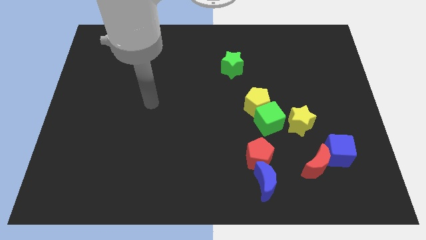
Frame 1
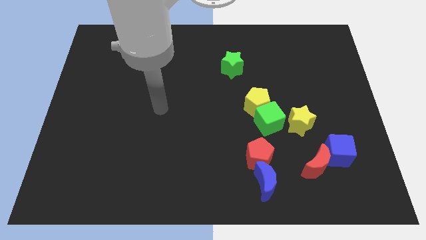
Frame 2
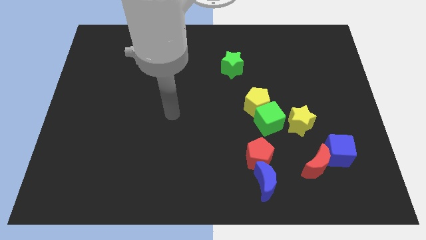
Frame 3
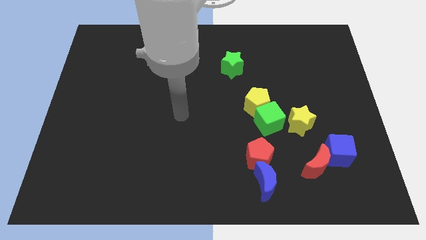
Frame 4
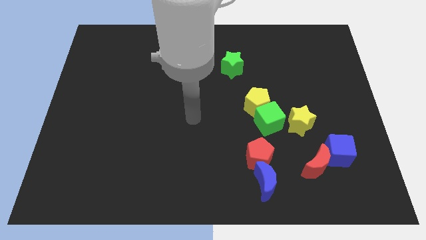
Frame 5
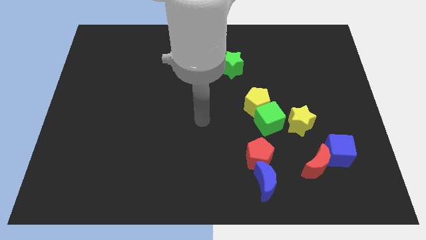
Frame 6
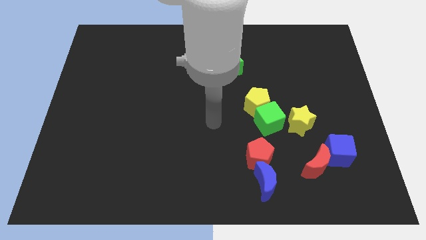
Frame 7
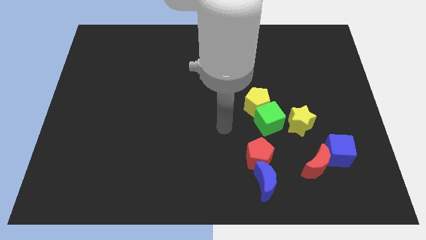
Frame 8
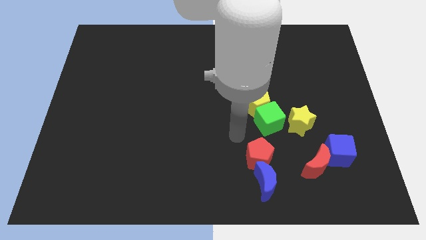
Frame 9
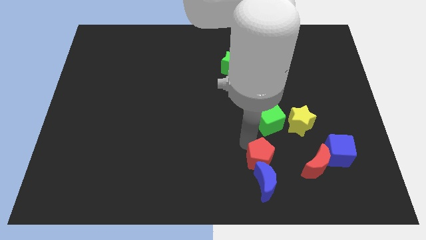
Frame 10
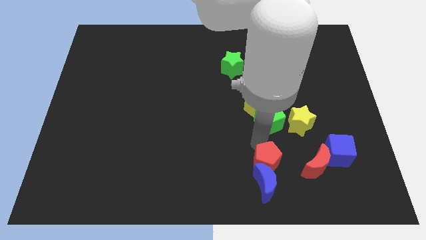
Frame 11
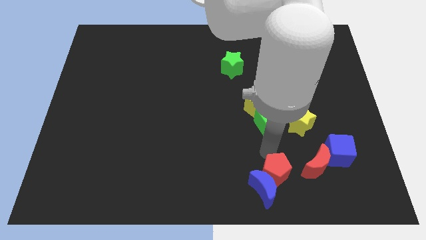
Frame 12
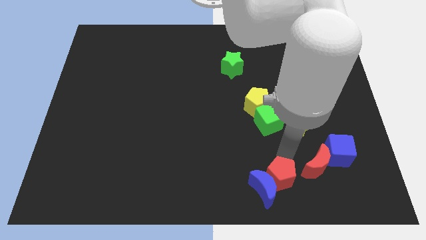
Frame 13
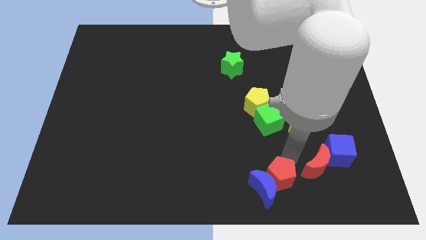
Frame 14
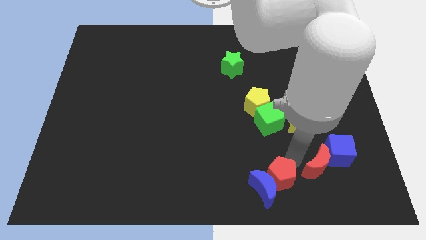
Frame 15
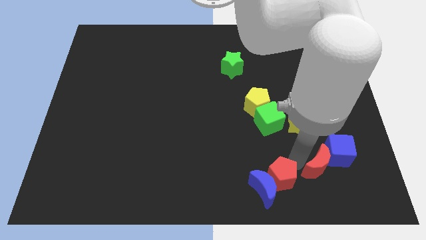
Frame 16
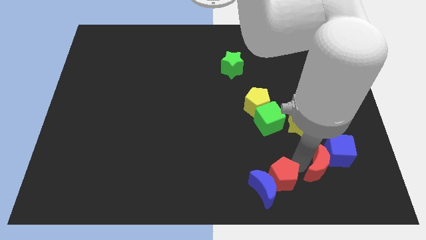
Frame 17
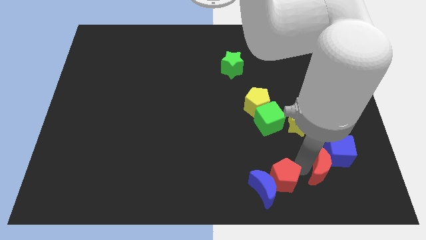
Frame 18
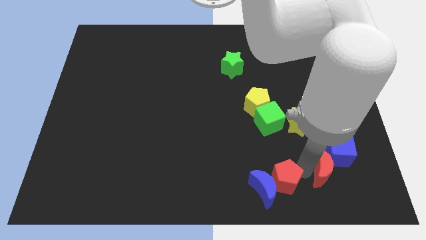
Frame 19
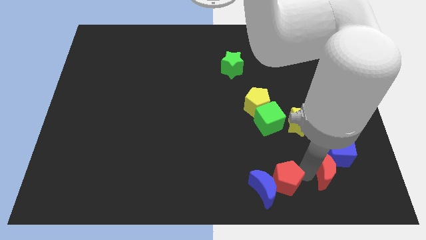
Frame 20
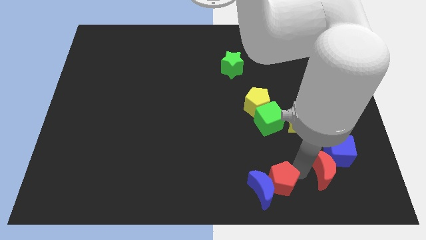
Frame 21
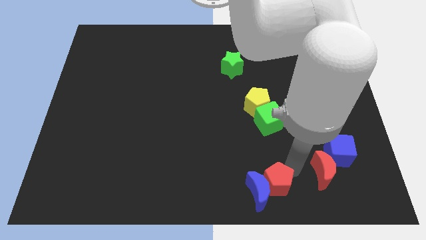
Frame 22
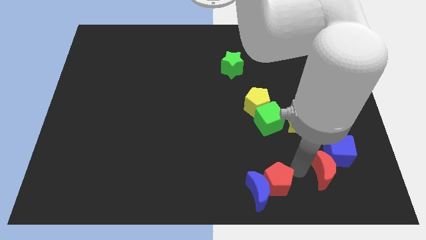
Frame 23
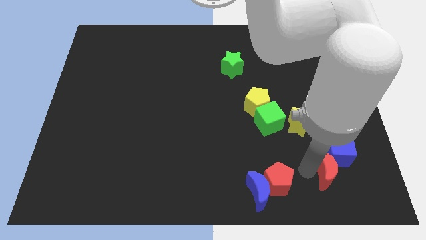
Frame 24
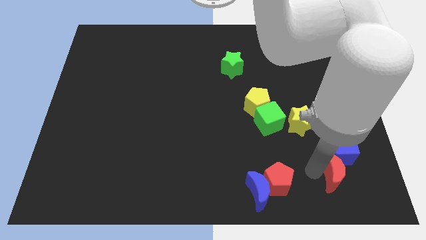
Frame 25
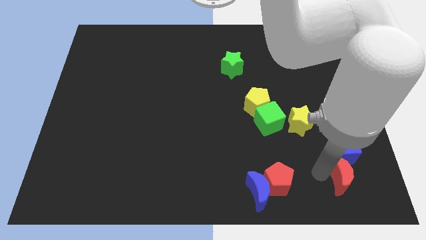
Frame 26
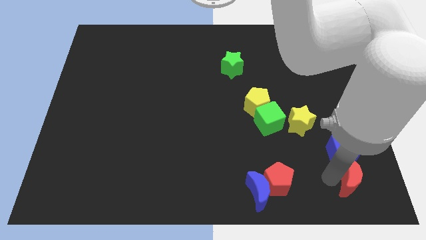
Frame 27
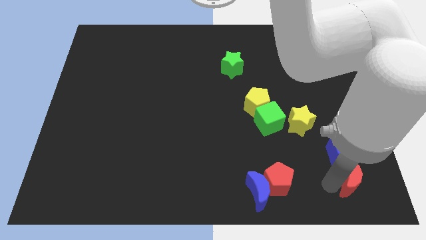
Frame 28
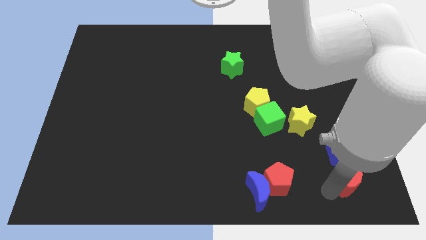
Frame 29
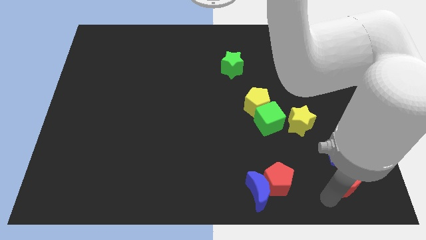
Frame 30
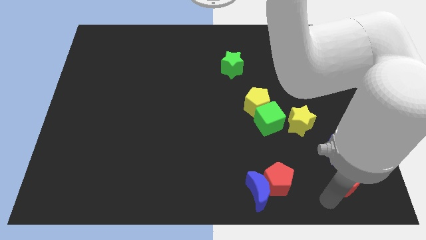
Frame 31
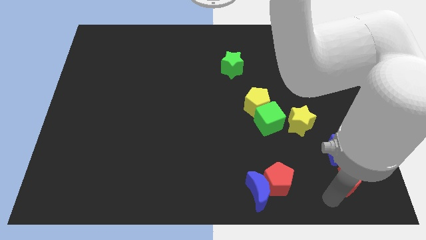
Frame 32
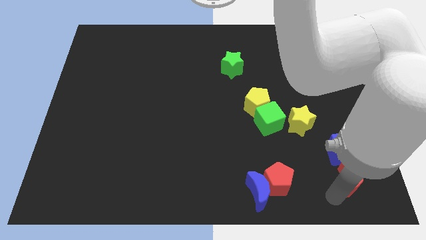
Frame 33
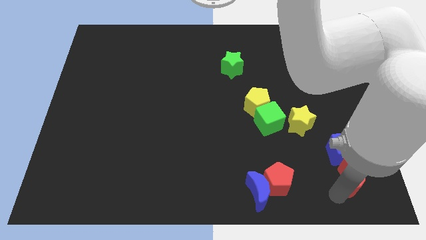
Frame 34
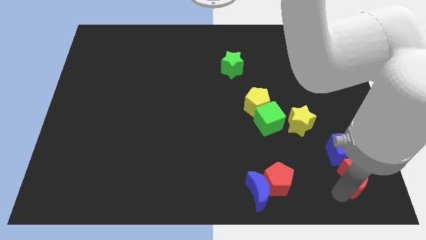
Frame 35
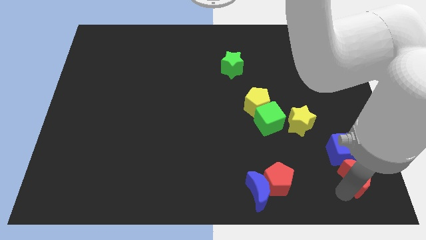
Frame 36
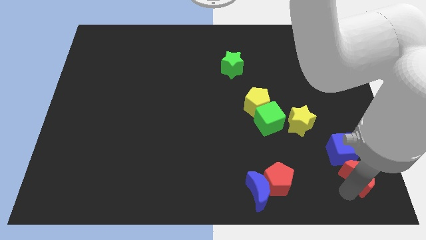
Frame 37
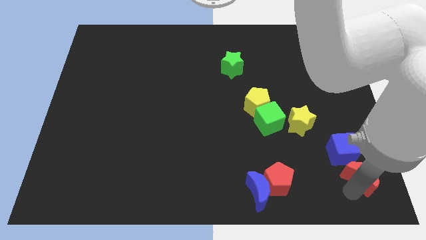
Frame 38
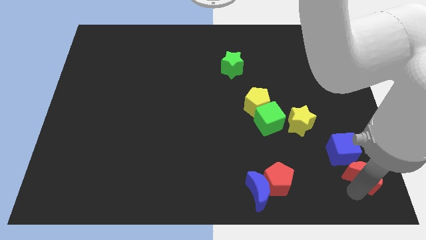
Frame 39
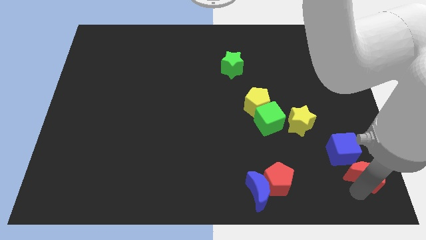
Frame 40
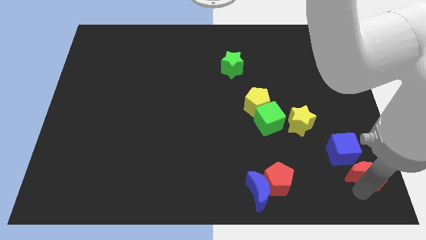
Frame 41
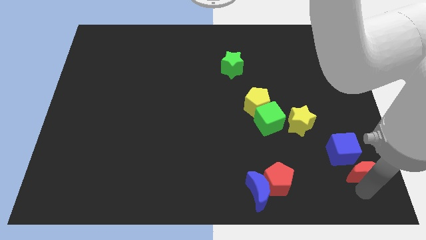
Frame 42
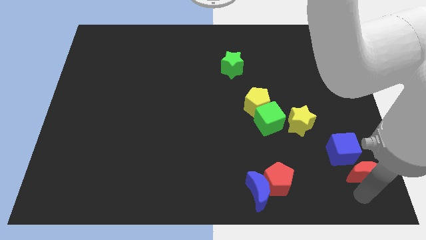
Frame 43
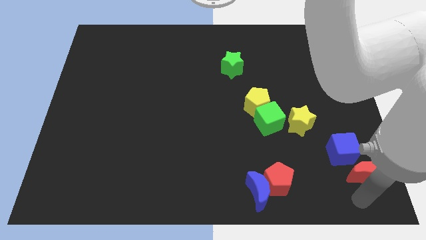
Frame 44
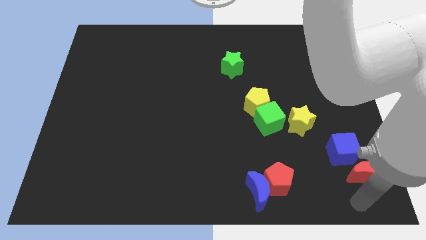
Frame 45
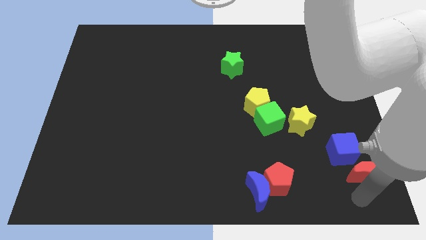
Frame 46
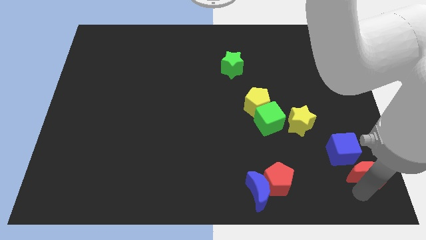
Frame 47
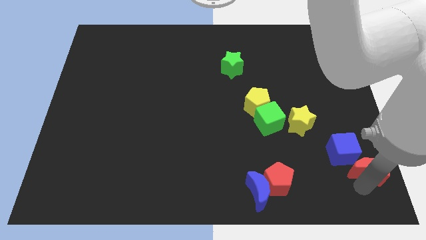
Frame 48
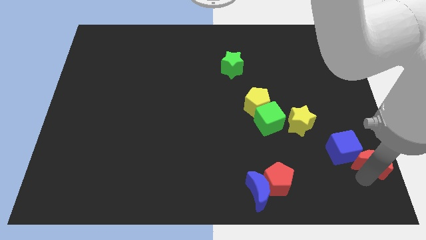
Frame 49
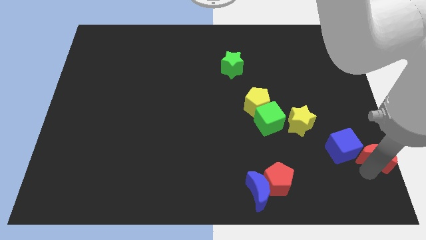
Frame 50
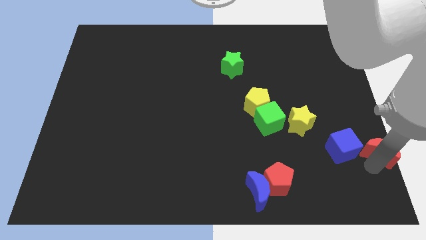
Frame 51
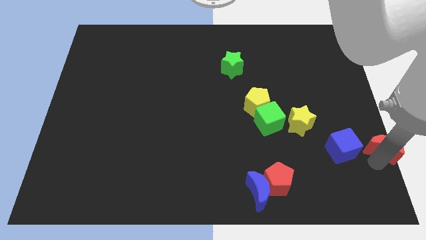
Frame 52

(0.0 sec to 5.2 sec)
slide the red moon to the center right

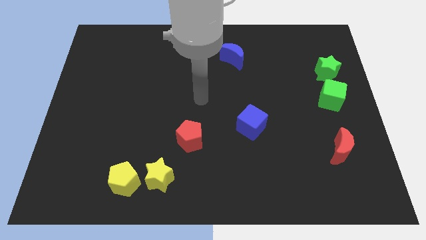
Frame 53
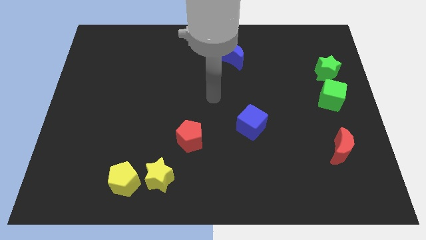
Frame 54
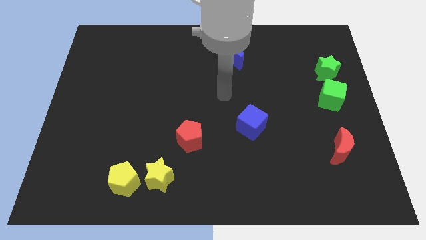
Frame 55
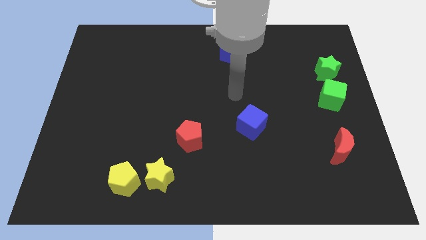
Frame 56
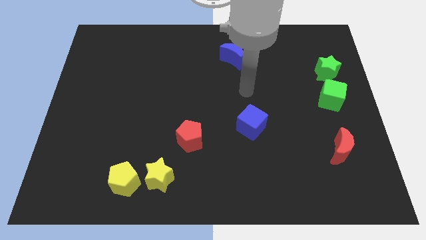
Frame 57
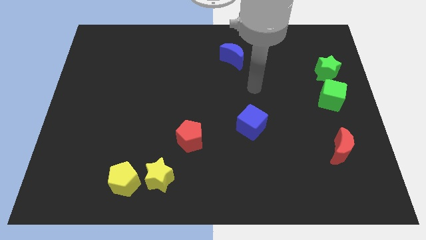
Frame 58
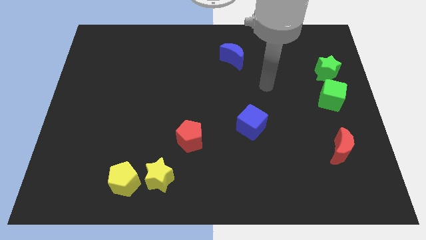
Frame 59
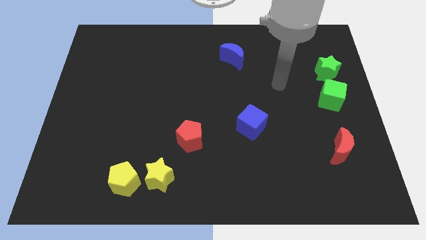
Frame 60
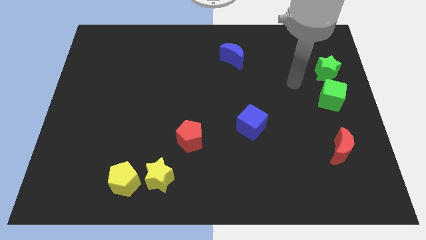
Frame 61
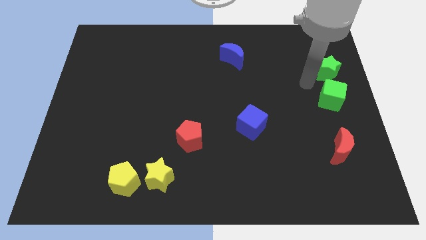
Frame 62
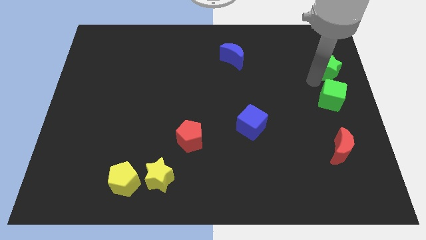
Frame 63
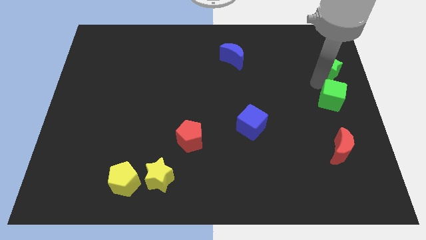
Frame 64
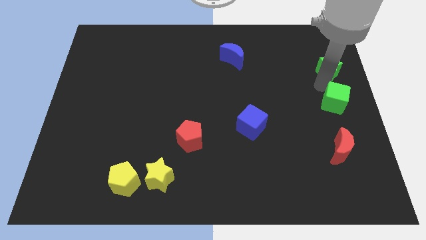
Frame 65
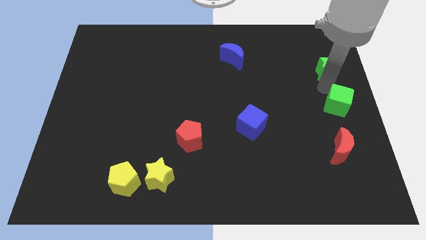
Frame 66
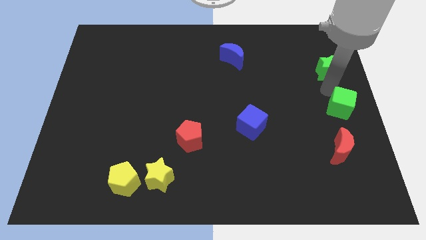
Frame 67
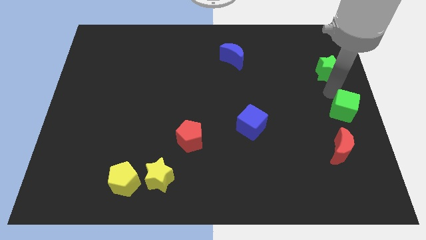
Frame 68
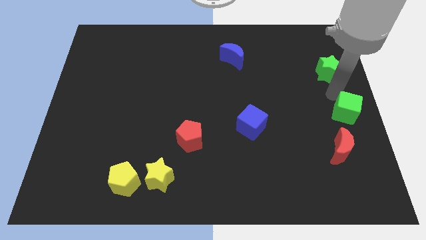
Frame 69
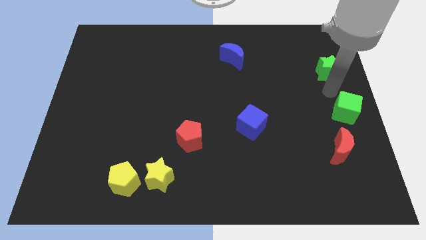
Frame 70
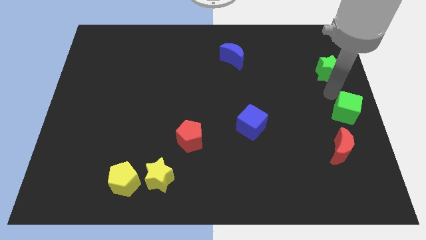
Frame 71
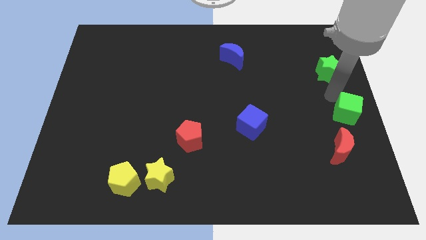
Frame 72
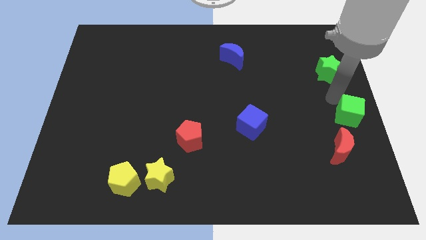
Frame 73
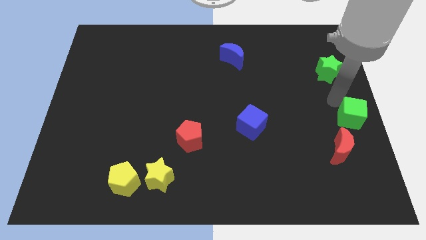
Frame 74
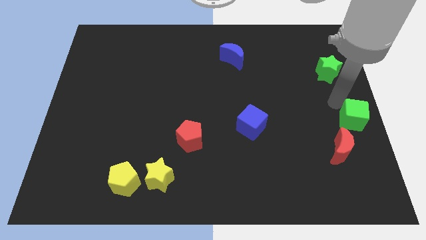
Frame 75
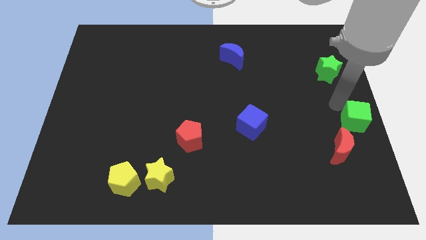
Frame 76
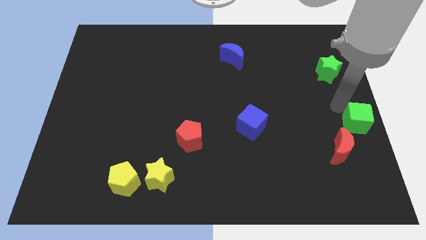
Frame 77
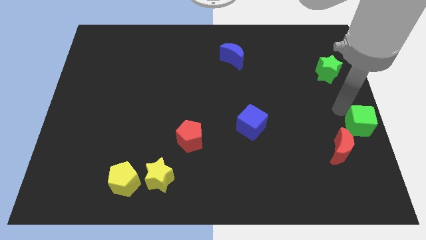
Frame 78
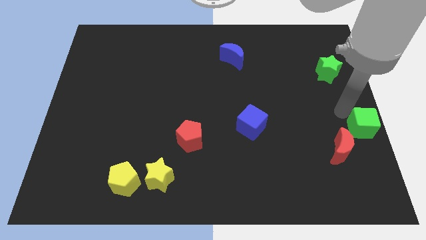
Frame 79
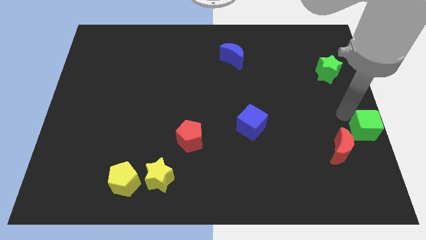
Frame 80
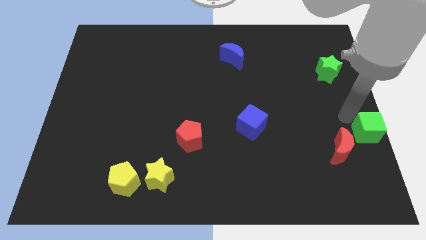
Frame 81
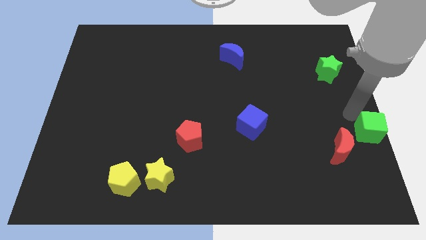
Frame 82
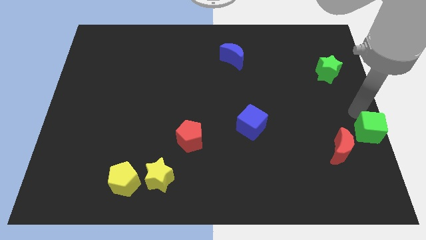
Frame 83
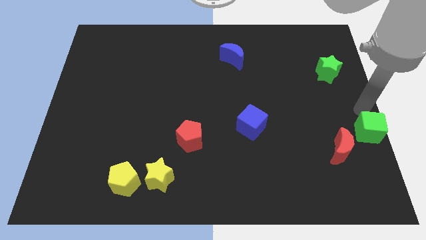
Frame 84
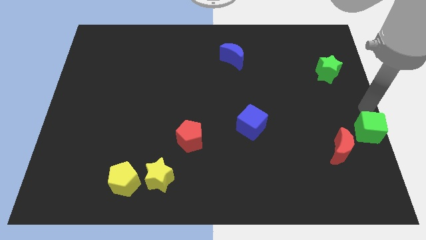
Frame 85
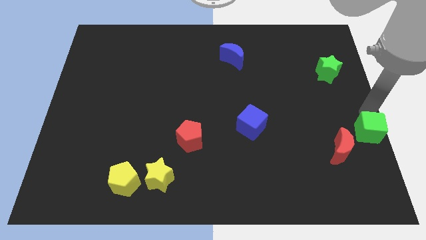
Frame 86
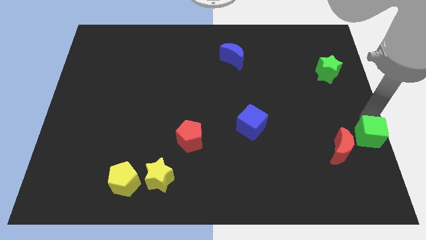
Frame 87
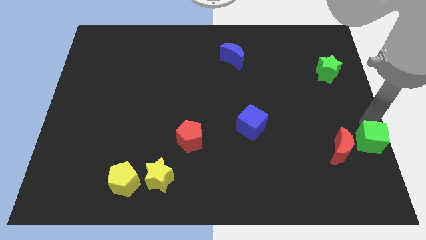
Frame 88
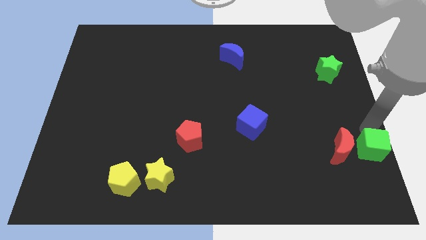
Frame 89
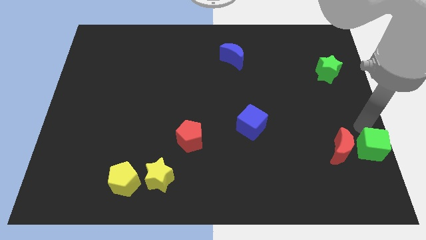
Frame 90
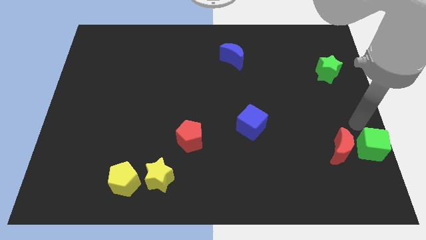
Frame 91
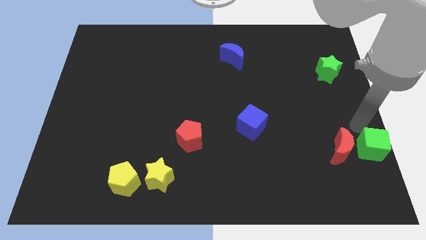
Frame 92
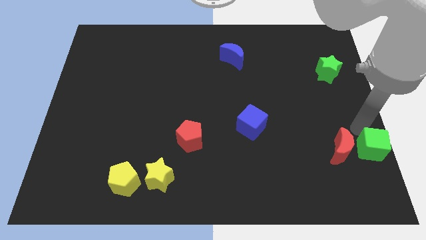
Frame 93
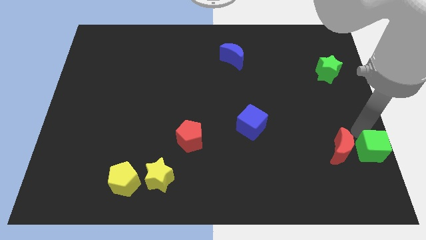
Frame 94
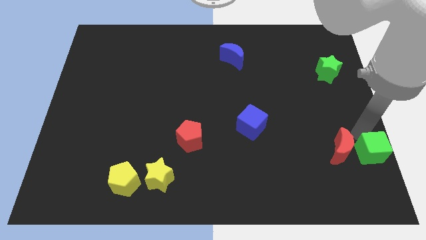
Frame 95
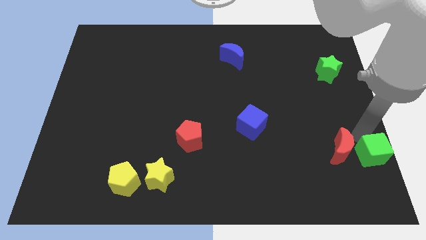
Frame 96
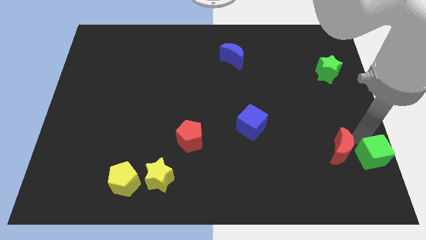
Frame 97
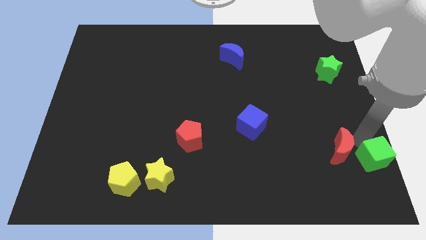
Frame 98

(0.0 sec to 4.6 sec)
slide the green cube to the bottom right corner
